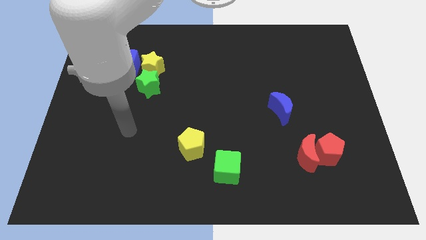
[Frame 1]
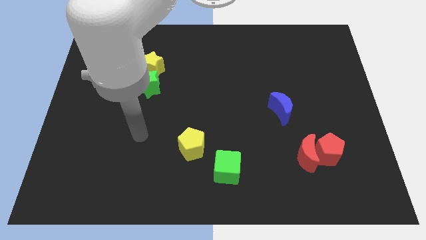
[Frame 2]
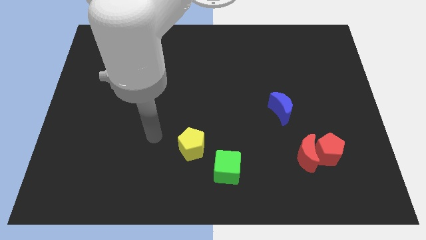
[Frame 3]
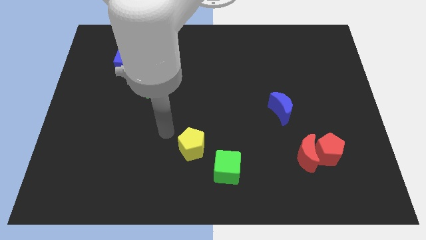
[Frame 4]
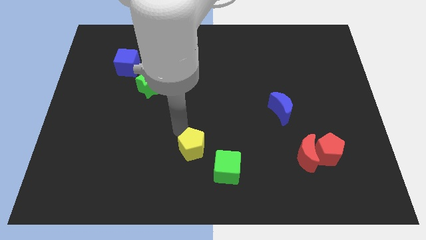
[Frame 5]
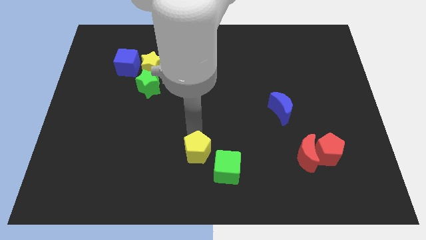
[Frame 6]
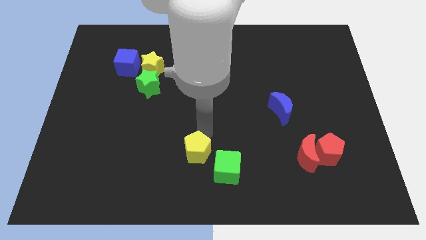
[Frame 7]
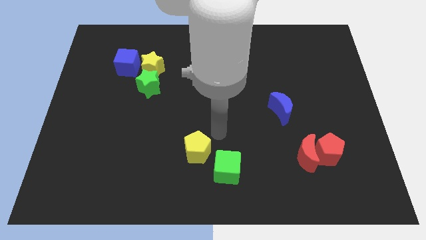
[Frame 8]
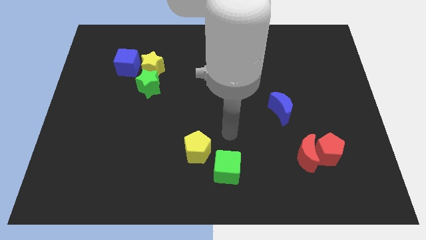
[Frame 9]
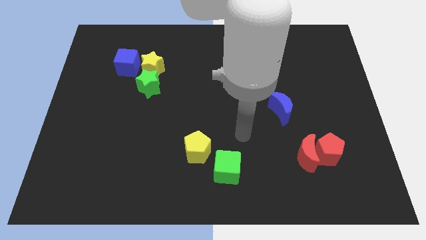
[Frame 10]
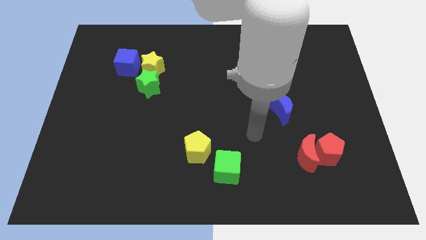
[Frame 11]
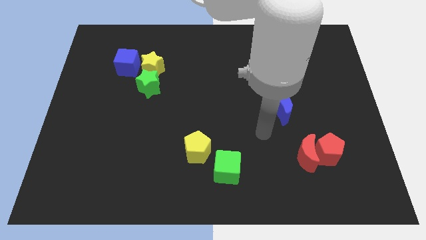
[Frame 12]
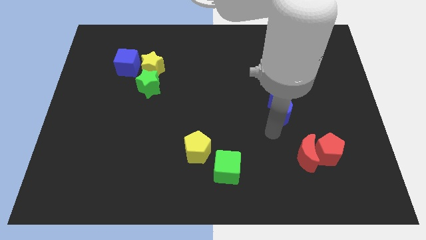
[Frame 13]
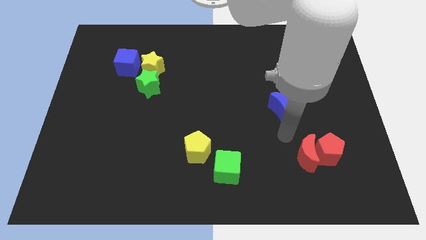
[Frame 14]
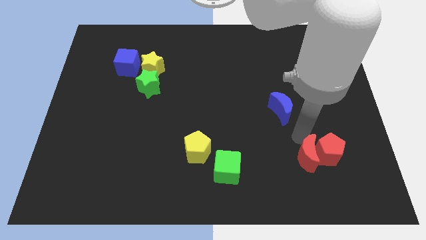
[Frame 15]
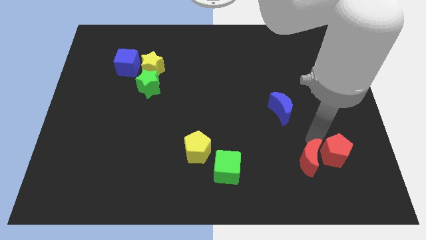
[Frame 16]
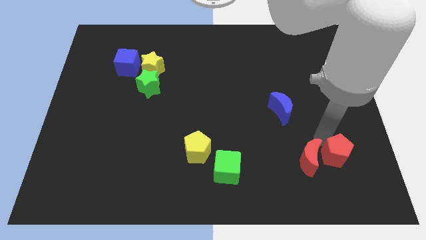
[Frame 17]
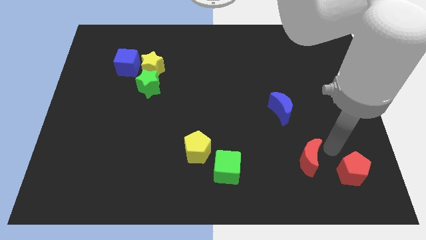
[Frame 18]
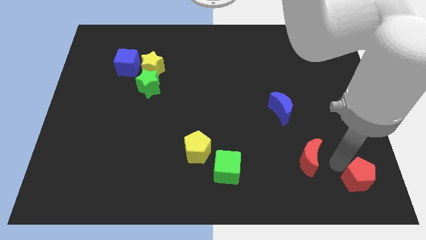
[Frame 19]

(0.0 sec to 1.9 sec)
separate the red moon from the red pentagon

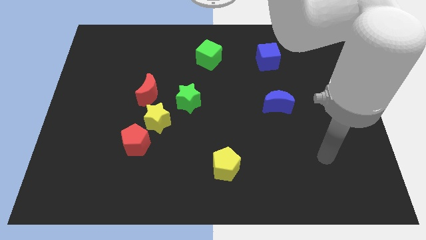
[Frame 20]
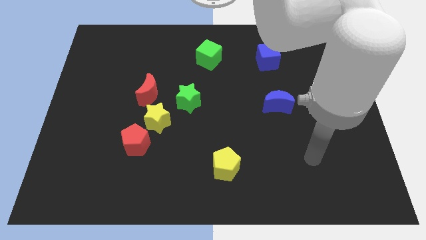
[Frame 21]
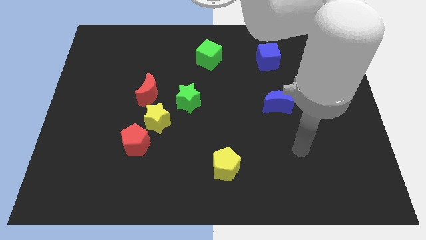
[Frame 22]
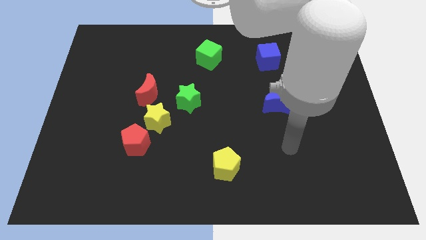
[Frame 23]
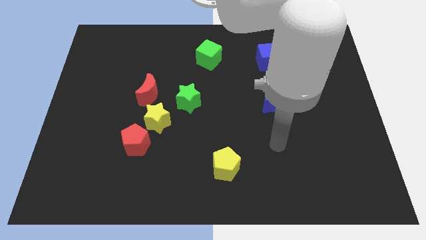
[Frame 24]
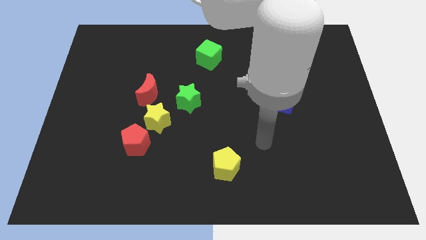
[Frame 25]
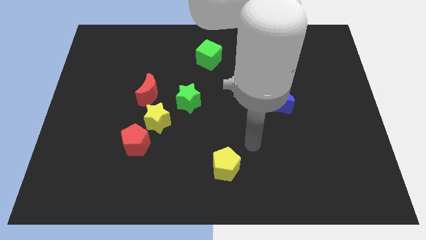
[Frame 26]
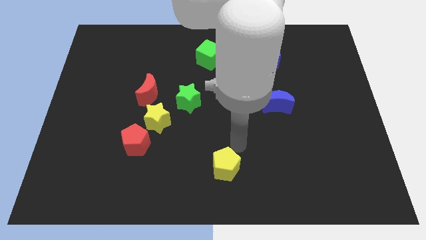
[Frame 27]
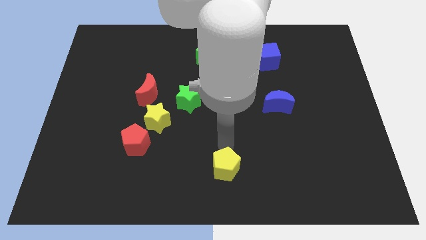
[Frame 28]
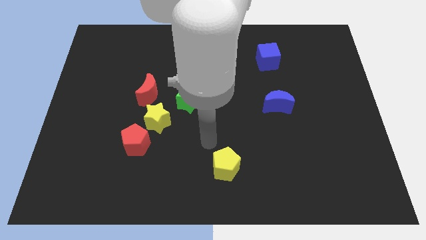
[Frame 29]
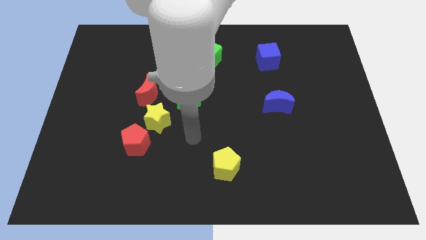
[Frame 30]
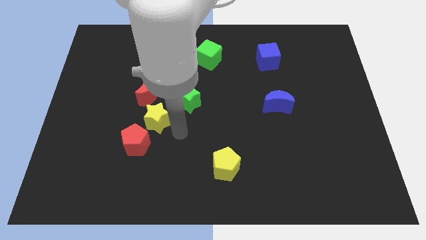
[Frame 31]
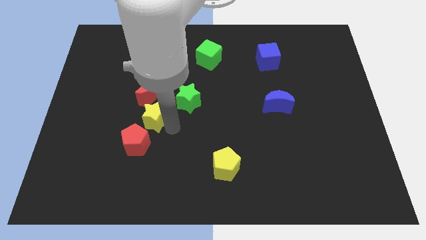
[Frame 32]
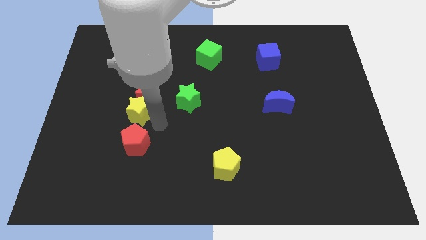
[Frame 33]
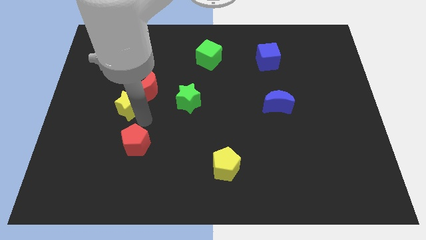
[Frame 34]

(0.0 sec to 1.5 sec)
separate the red pentagon from the yellow star

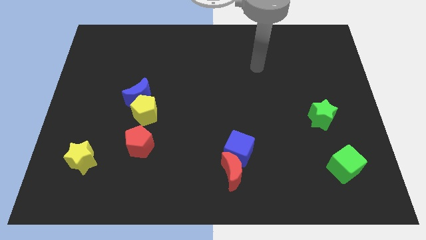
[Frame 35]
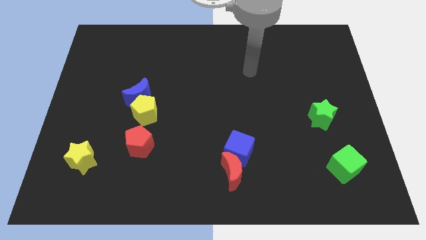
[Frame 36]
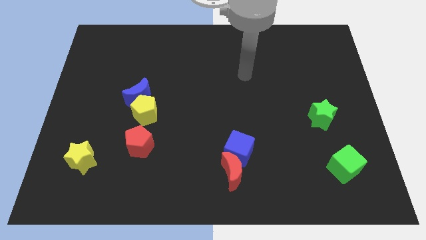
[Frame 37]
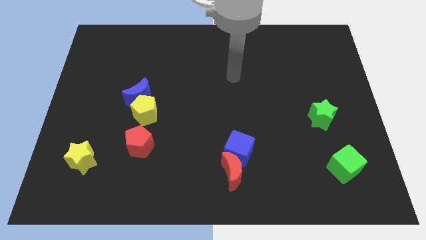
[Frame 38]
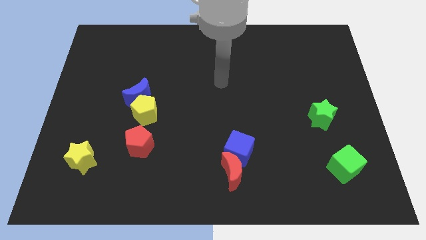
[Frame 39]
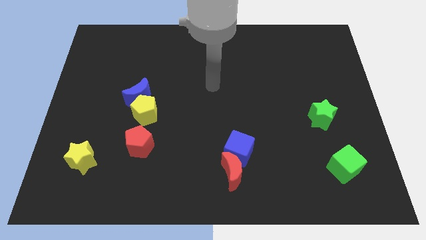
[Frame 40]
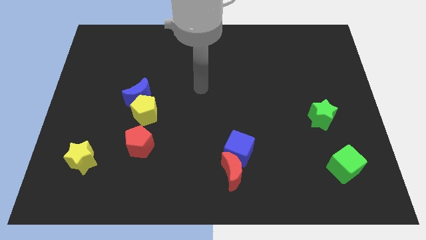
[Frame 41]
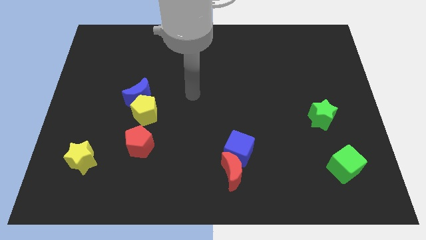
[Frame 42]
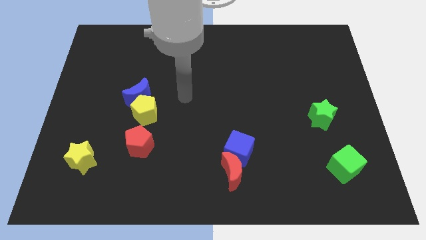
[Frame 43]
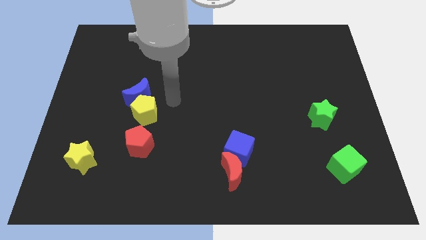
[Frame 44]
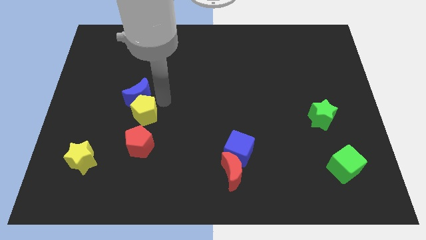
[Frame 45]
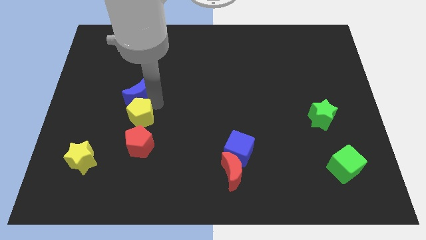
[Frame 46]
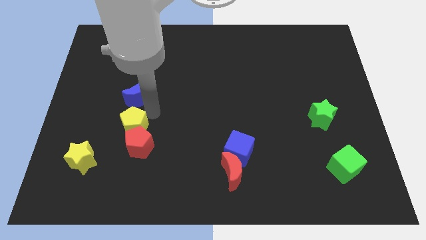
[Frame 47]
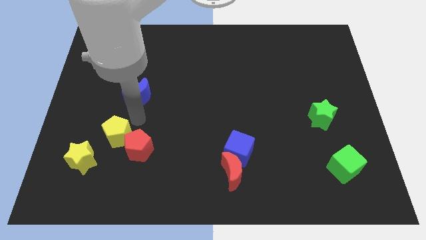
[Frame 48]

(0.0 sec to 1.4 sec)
move the blue moon away from the yellow pentagon

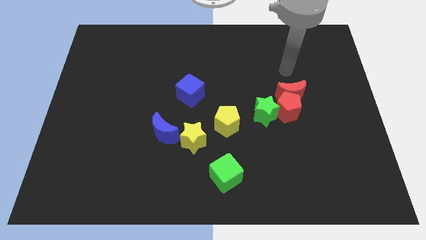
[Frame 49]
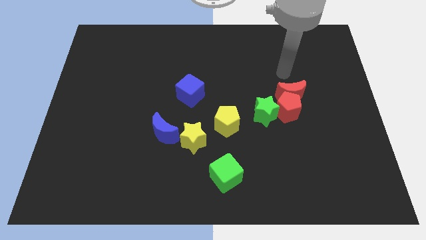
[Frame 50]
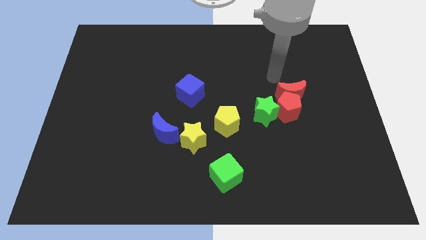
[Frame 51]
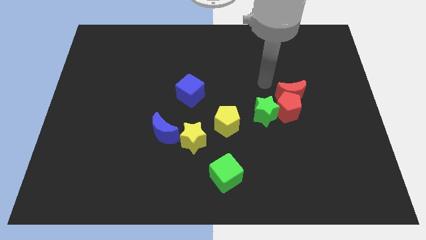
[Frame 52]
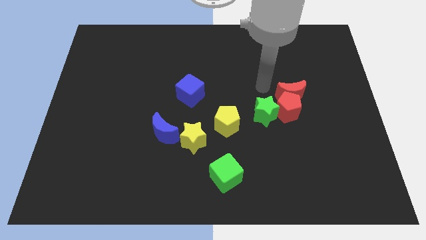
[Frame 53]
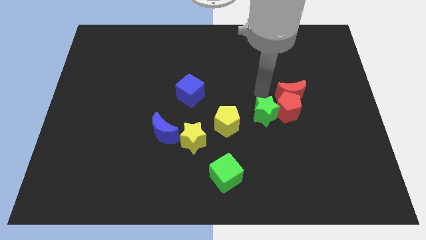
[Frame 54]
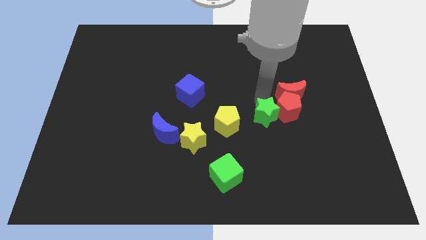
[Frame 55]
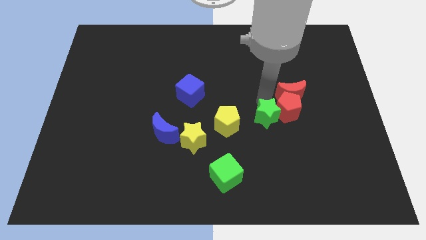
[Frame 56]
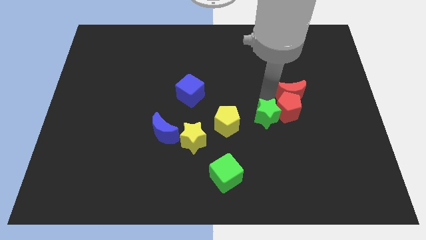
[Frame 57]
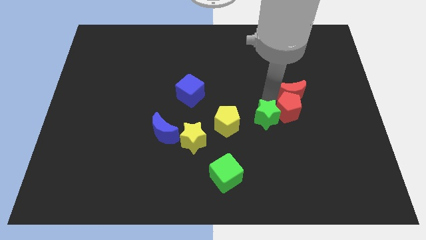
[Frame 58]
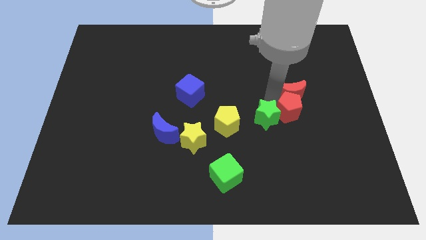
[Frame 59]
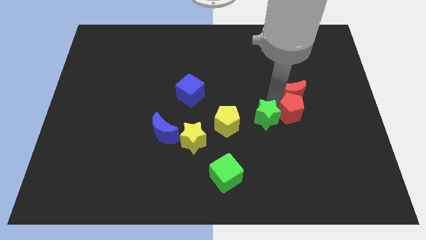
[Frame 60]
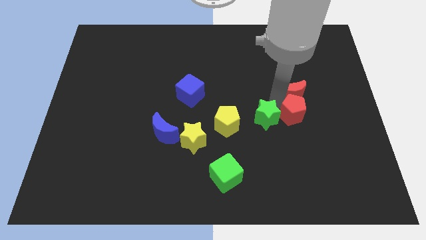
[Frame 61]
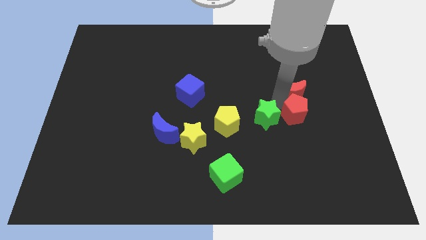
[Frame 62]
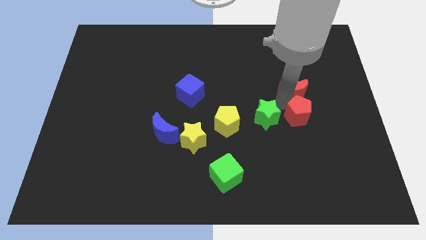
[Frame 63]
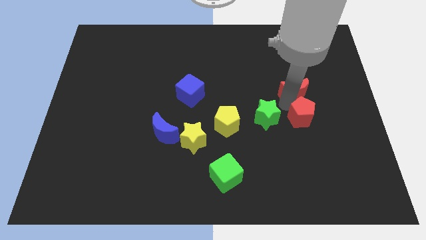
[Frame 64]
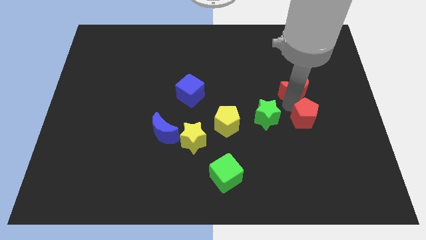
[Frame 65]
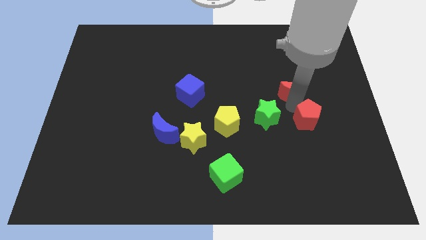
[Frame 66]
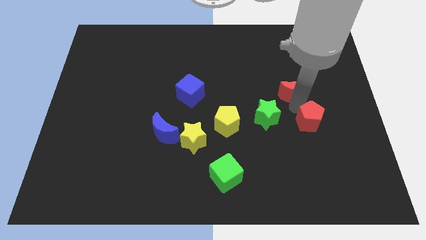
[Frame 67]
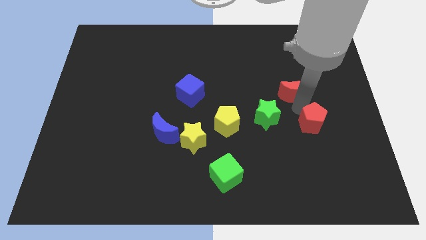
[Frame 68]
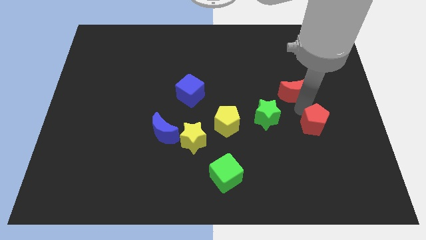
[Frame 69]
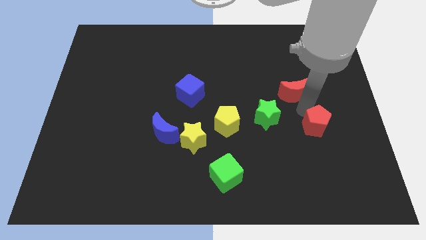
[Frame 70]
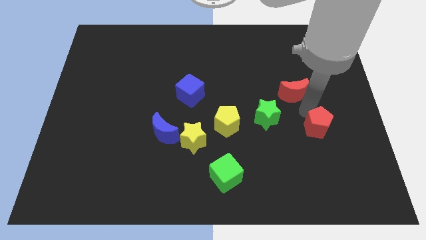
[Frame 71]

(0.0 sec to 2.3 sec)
move the red pentagon away from the red moon and green star

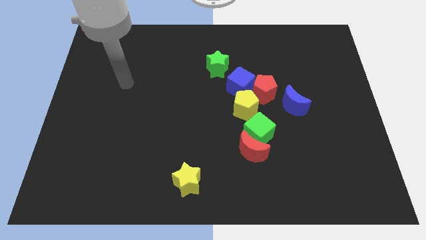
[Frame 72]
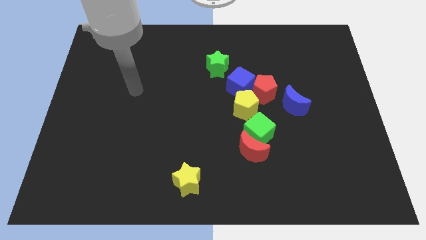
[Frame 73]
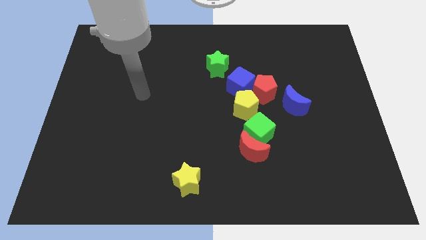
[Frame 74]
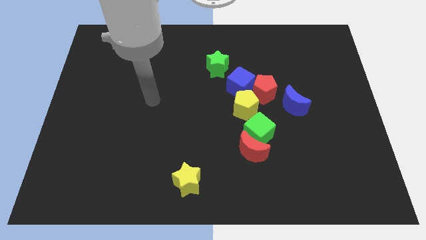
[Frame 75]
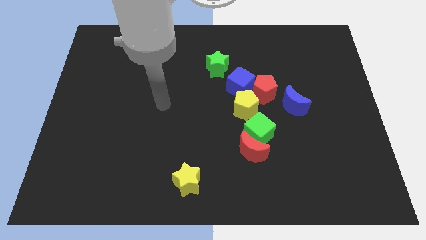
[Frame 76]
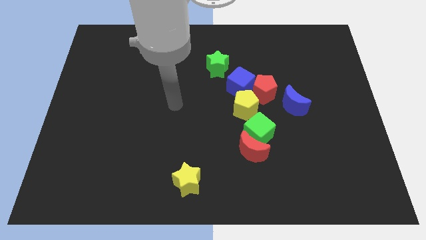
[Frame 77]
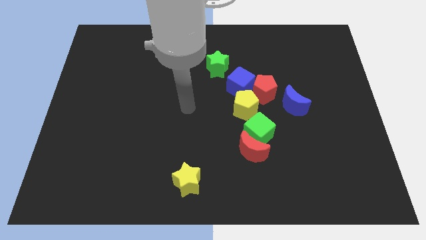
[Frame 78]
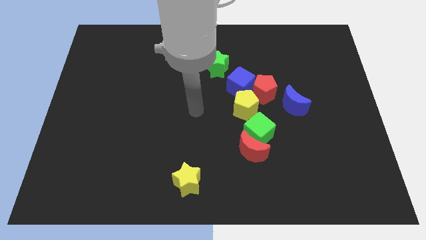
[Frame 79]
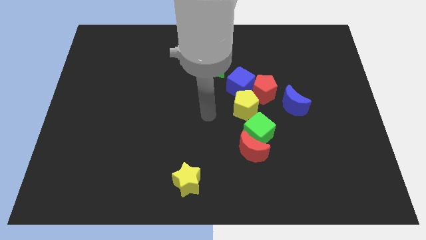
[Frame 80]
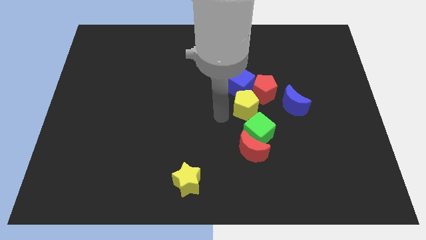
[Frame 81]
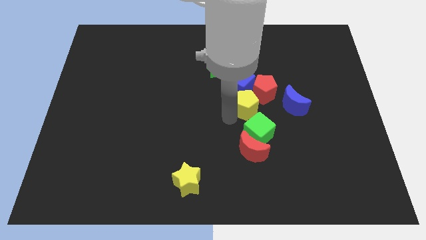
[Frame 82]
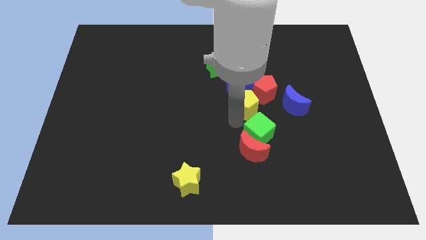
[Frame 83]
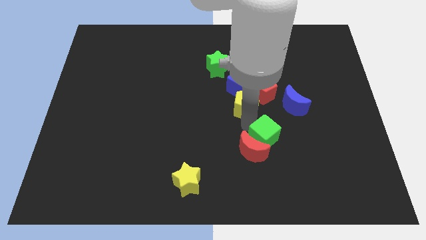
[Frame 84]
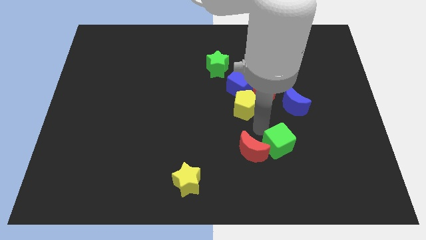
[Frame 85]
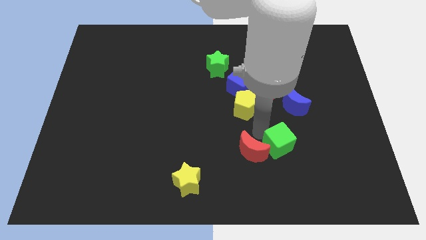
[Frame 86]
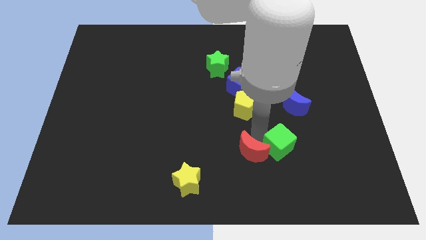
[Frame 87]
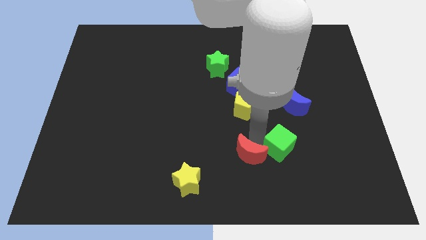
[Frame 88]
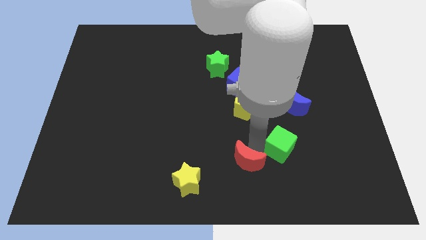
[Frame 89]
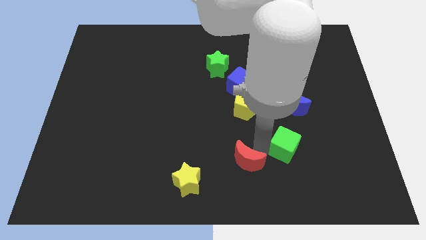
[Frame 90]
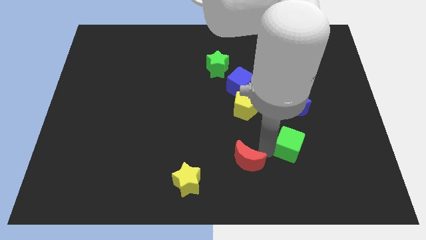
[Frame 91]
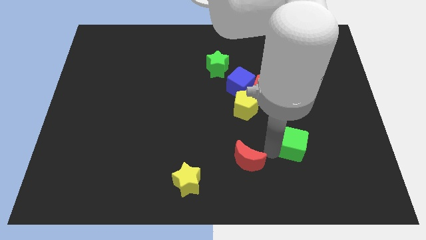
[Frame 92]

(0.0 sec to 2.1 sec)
pull the red moon apart from the green cube

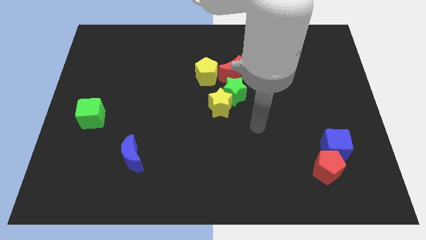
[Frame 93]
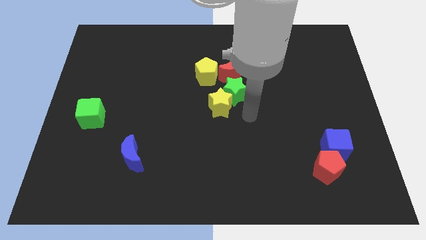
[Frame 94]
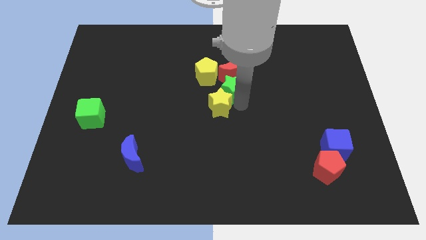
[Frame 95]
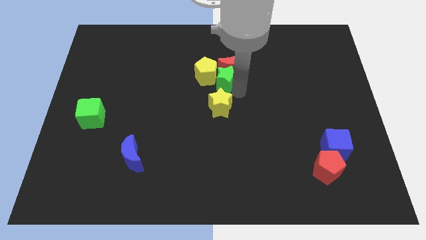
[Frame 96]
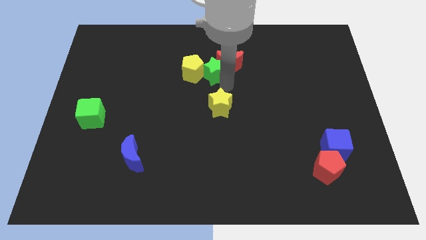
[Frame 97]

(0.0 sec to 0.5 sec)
separate the yellow star from the green star
